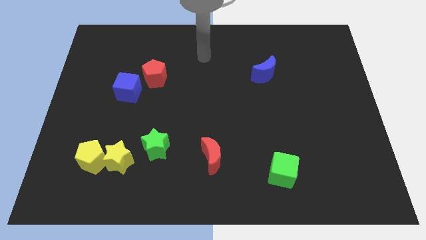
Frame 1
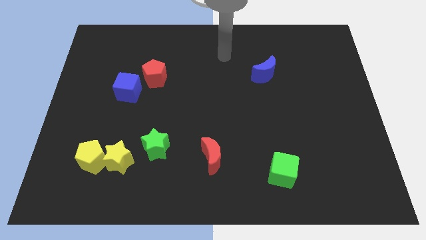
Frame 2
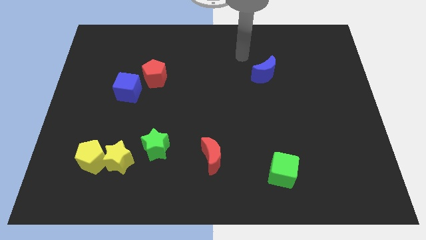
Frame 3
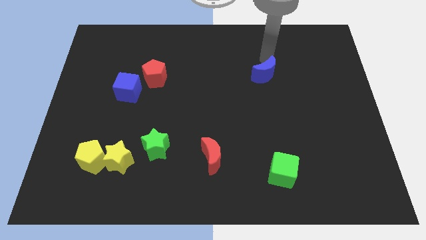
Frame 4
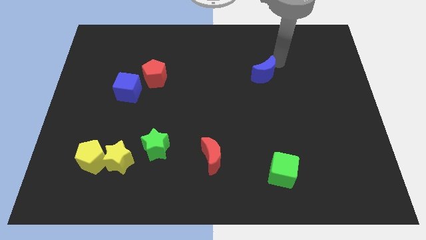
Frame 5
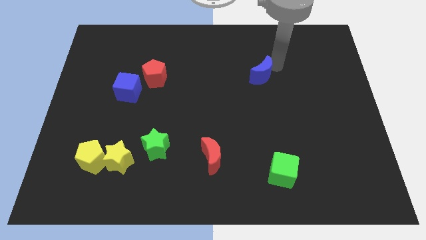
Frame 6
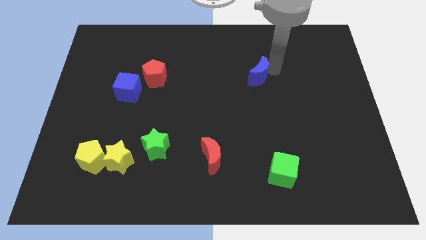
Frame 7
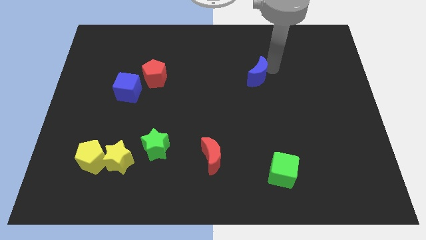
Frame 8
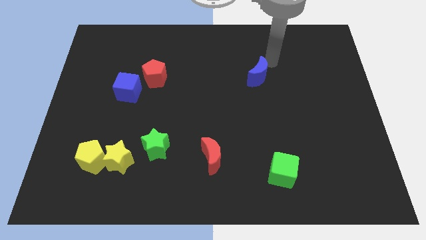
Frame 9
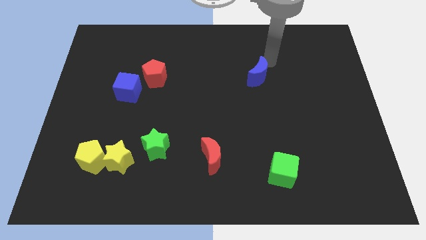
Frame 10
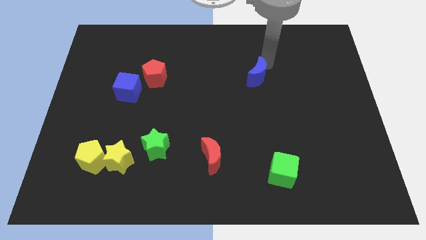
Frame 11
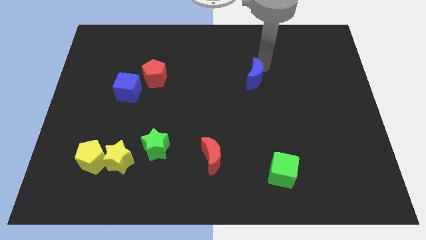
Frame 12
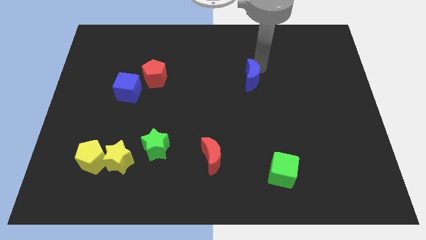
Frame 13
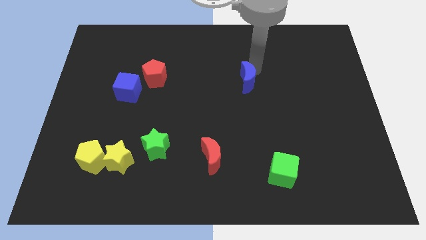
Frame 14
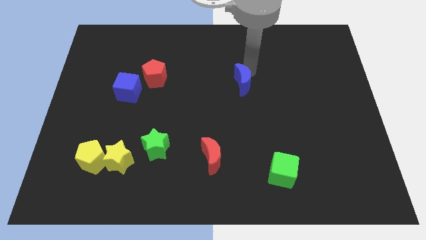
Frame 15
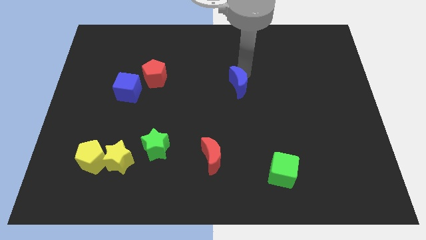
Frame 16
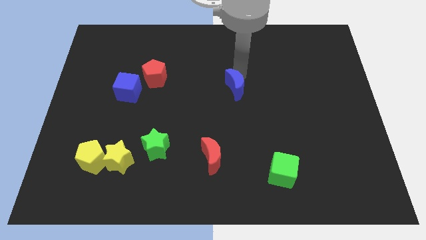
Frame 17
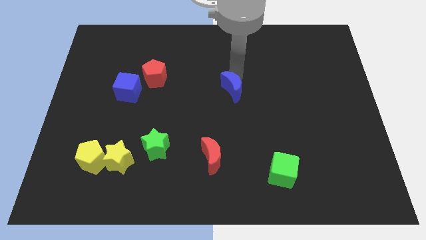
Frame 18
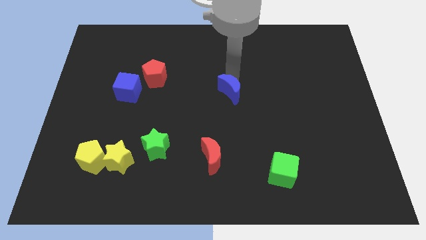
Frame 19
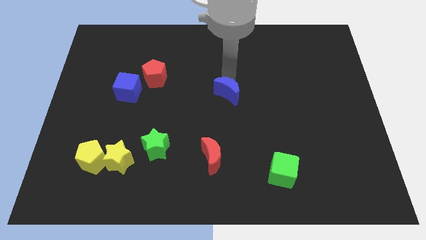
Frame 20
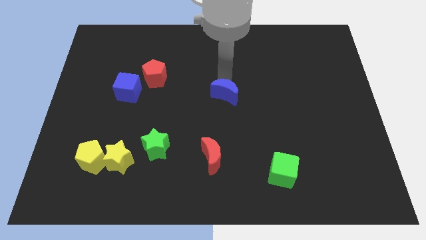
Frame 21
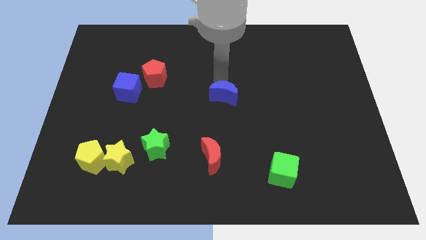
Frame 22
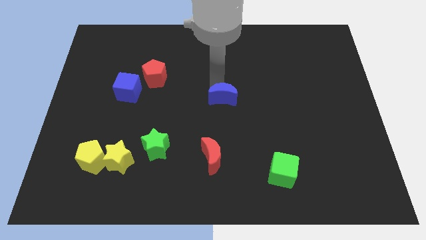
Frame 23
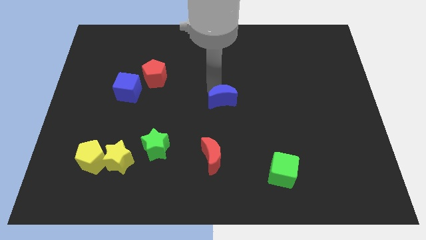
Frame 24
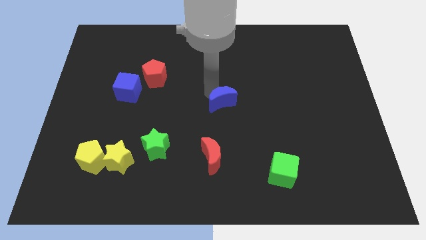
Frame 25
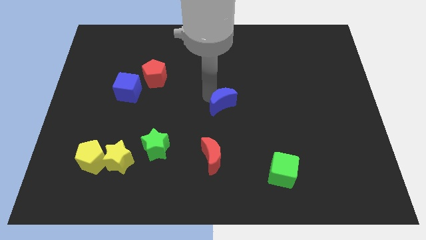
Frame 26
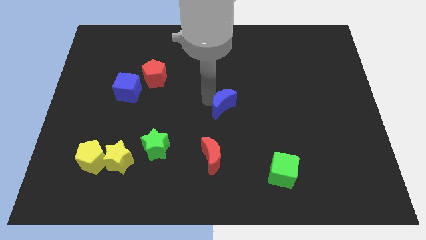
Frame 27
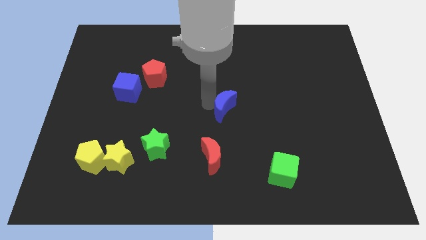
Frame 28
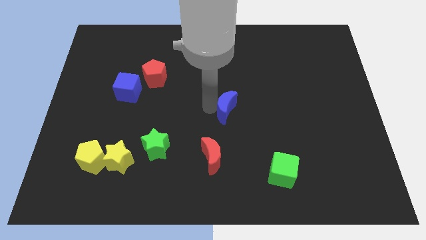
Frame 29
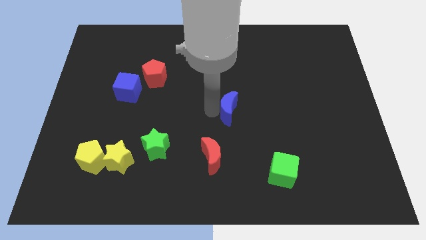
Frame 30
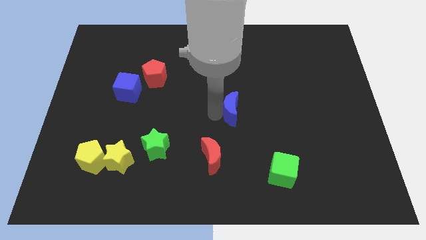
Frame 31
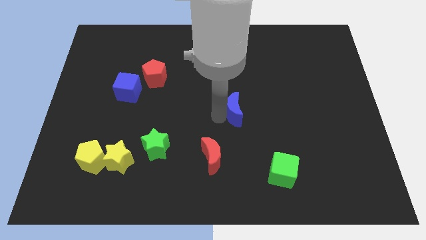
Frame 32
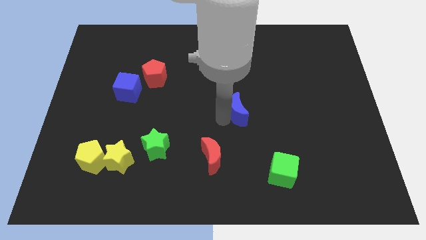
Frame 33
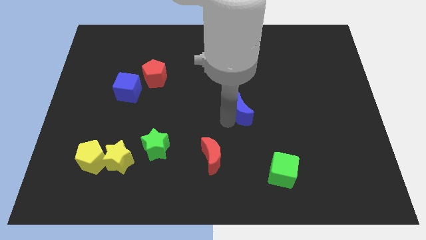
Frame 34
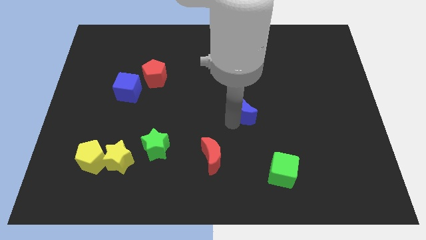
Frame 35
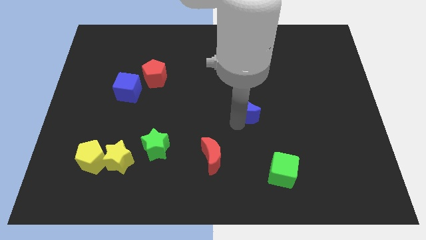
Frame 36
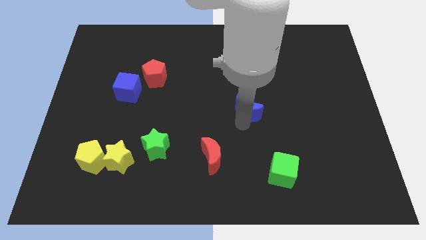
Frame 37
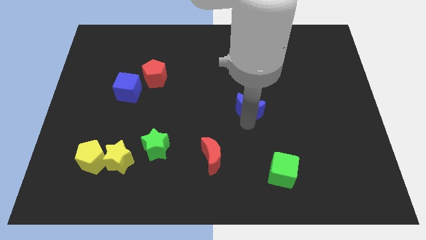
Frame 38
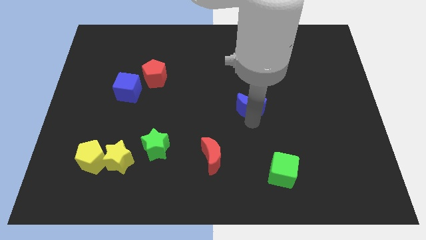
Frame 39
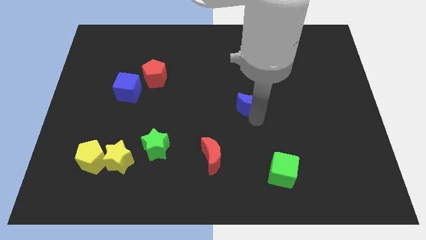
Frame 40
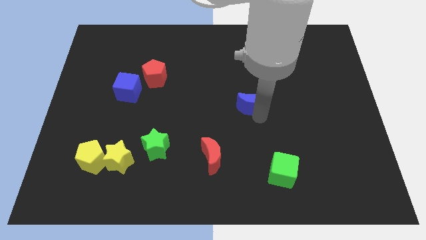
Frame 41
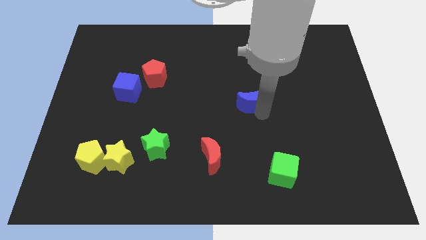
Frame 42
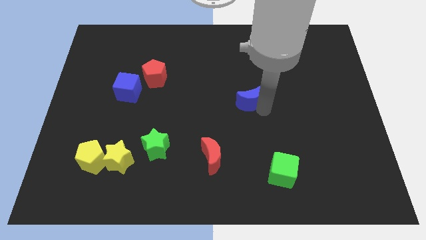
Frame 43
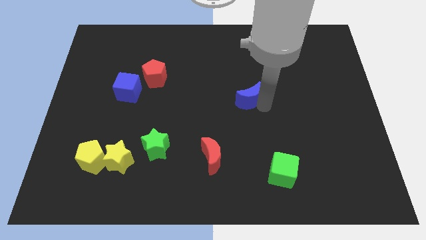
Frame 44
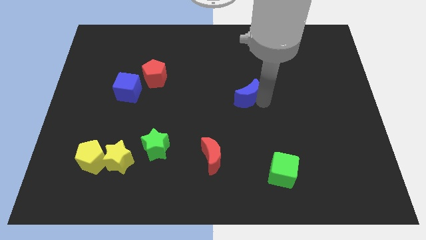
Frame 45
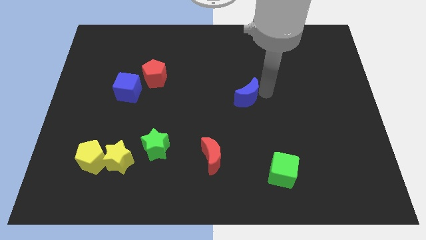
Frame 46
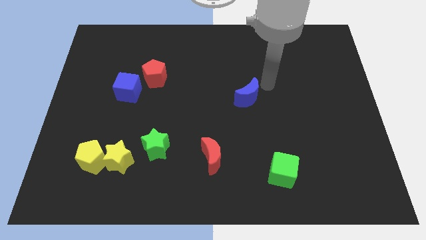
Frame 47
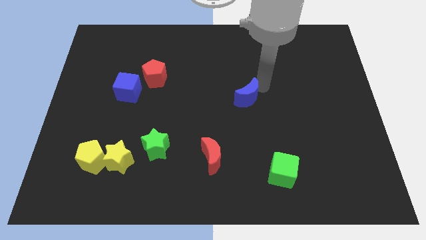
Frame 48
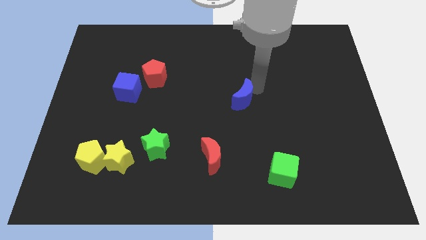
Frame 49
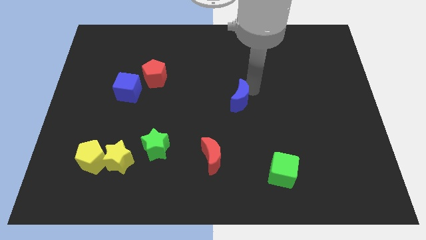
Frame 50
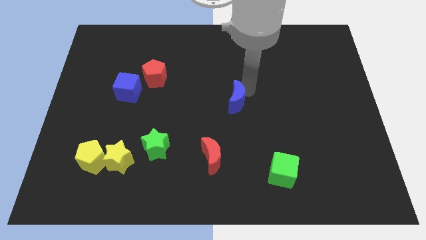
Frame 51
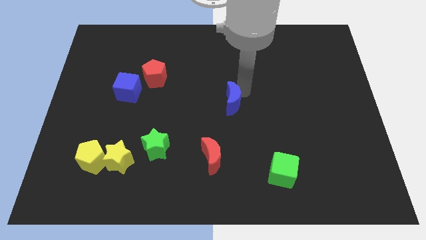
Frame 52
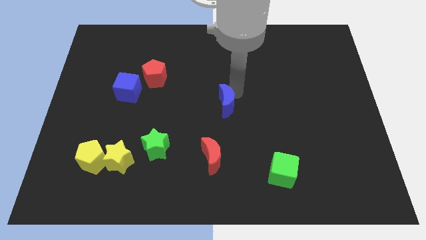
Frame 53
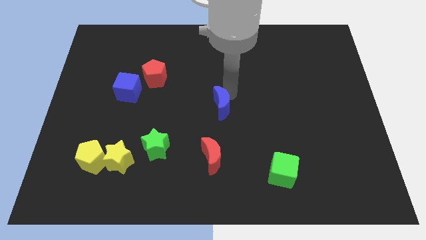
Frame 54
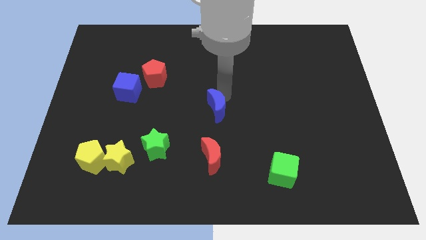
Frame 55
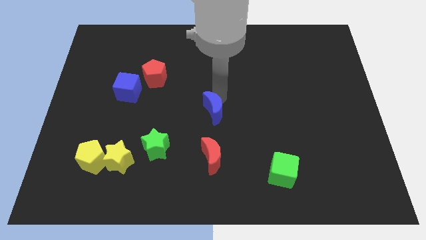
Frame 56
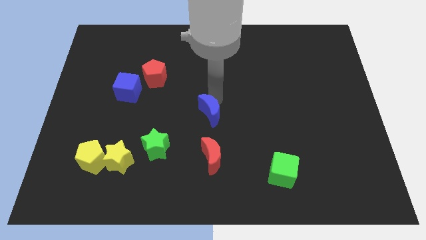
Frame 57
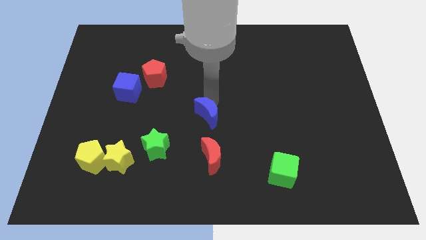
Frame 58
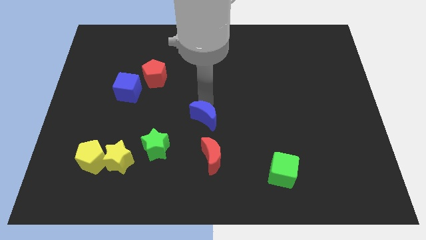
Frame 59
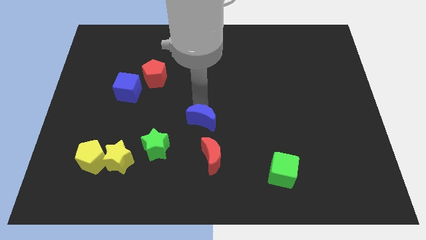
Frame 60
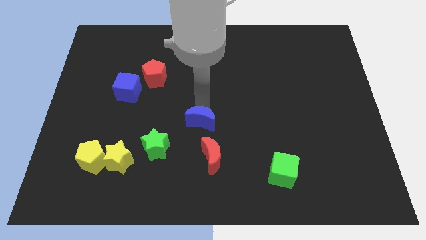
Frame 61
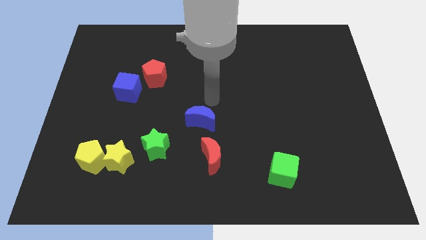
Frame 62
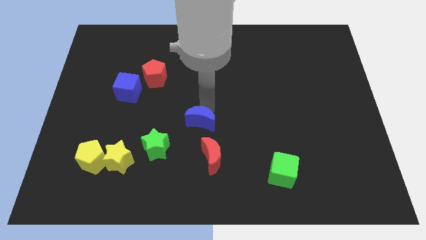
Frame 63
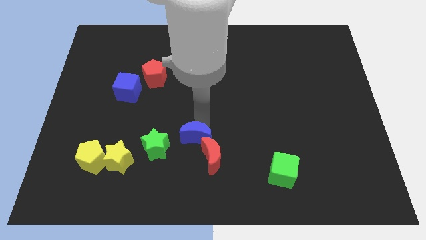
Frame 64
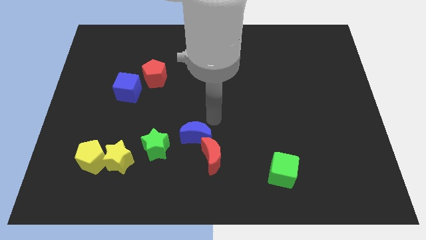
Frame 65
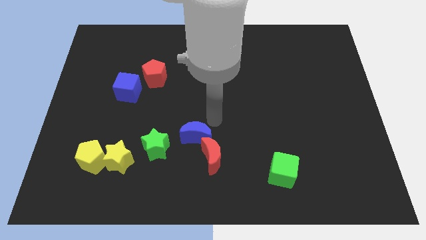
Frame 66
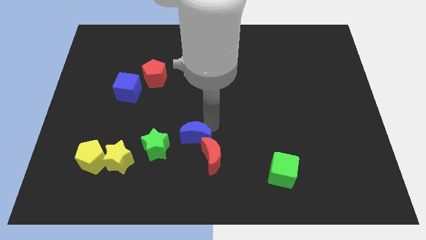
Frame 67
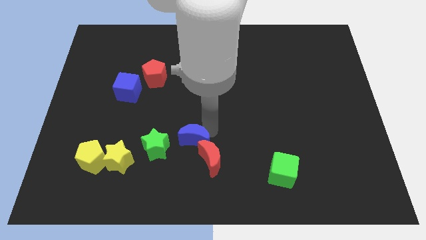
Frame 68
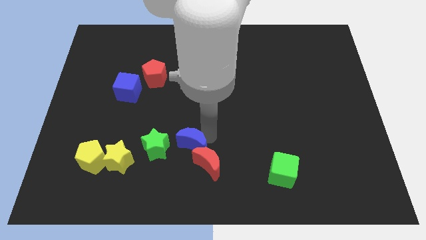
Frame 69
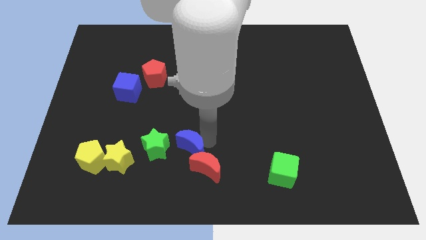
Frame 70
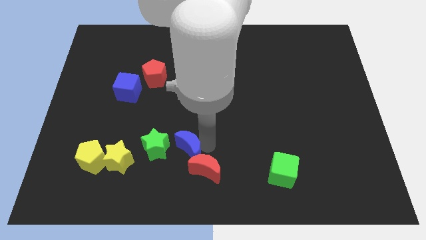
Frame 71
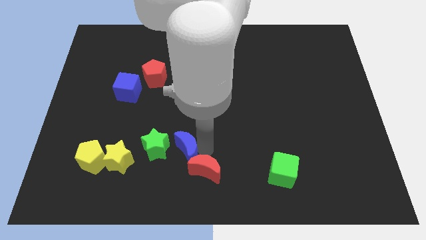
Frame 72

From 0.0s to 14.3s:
move the blue moon left of the red moon

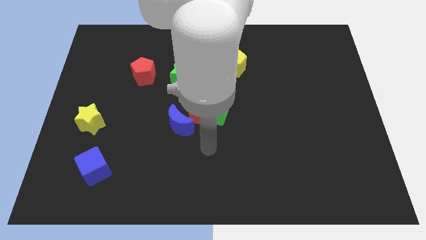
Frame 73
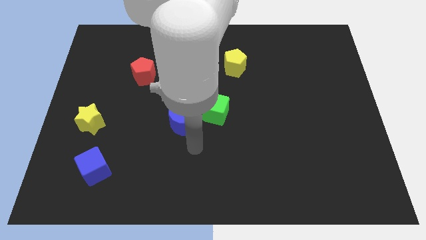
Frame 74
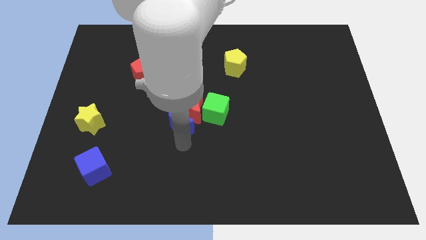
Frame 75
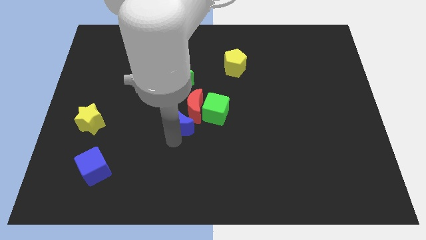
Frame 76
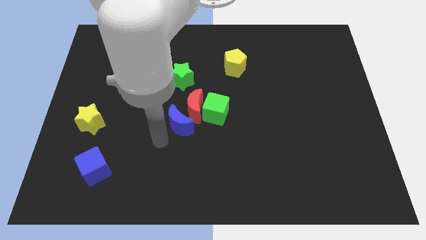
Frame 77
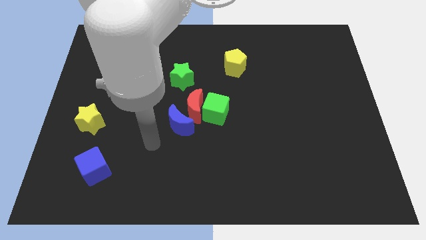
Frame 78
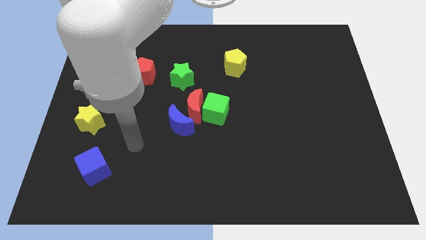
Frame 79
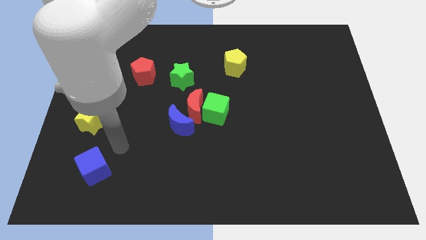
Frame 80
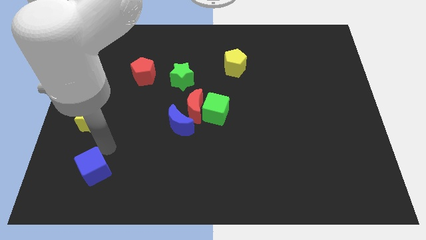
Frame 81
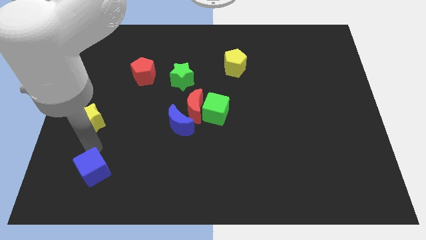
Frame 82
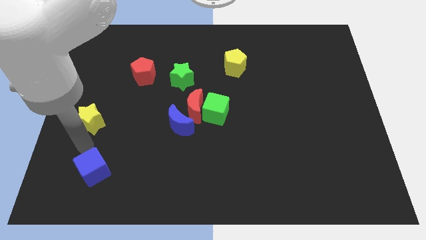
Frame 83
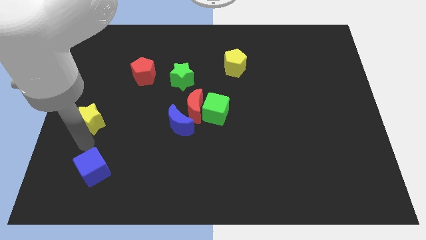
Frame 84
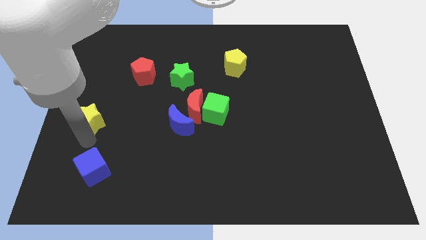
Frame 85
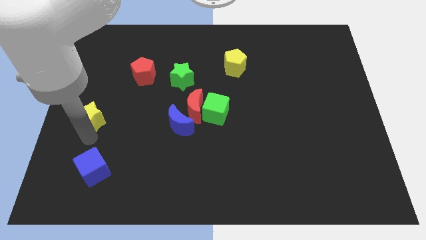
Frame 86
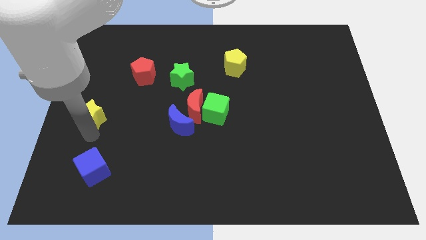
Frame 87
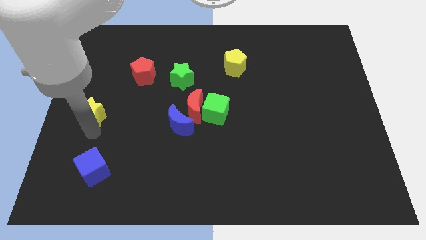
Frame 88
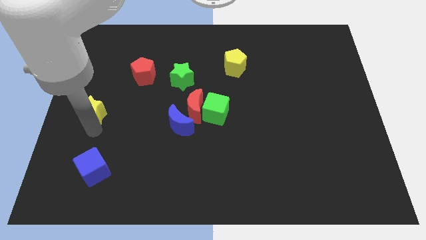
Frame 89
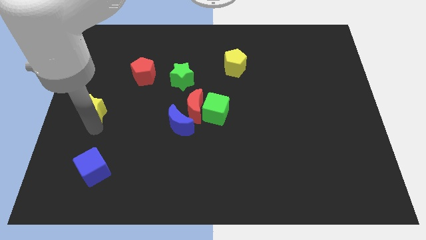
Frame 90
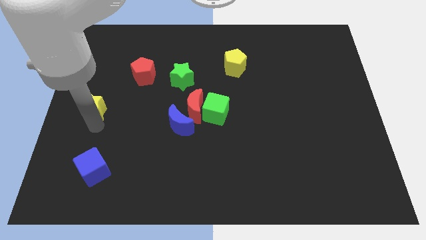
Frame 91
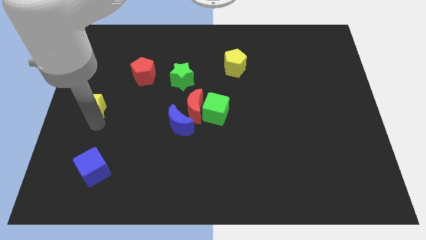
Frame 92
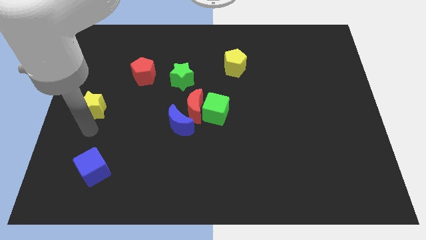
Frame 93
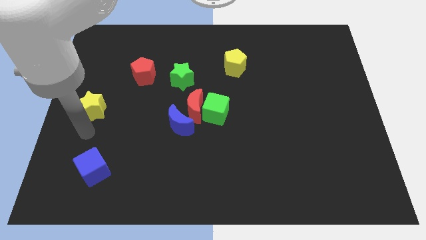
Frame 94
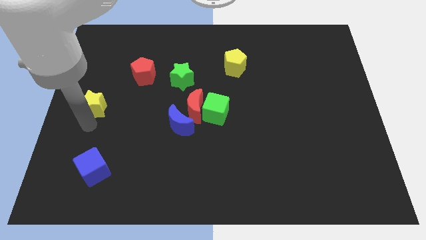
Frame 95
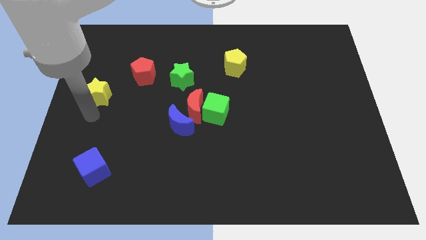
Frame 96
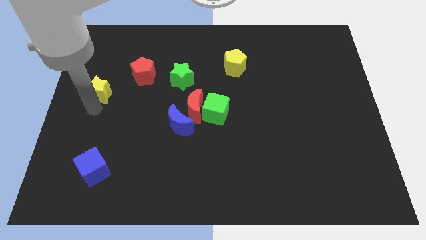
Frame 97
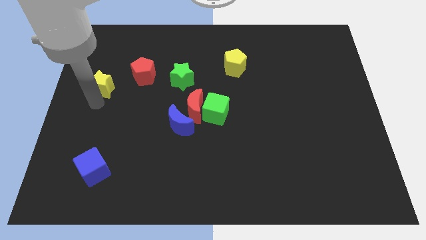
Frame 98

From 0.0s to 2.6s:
put the yellow star left of the red pentagon
